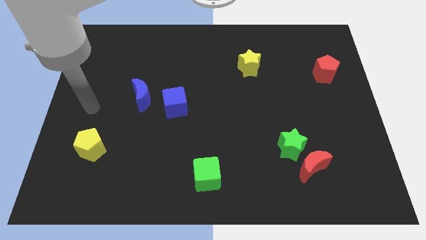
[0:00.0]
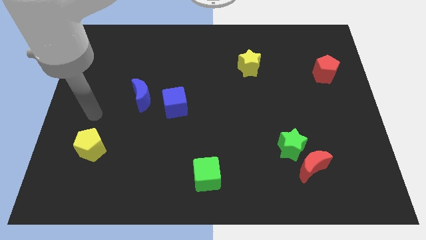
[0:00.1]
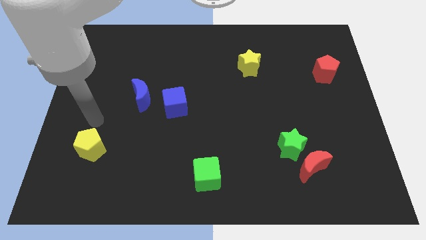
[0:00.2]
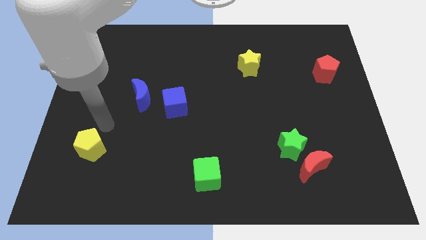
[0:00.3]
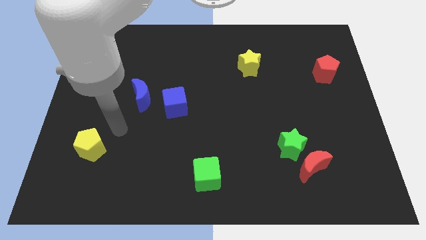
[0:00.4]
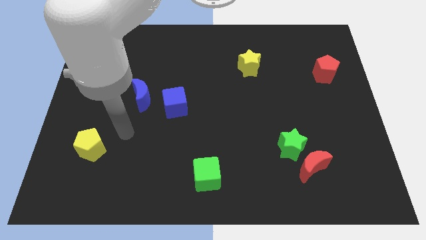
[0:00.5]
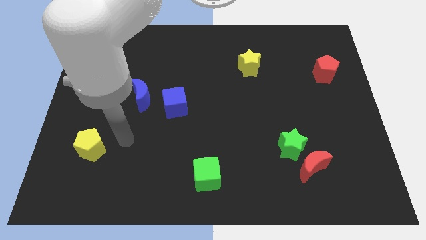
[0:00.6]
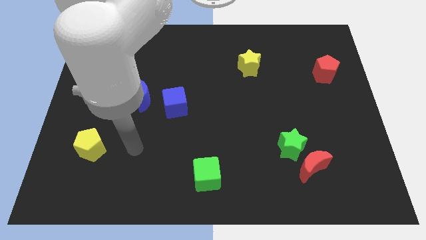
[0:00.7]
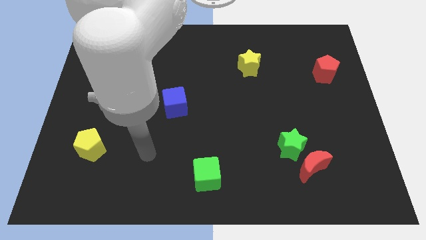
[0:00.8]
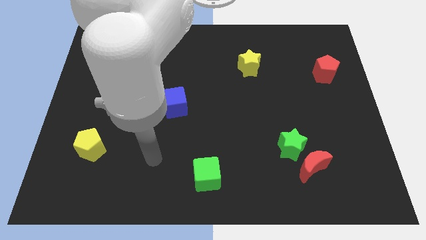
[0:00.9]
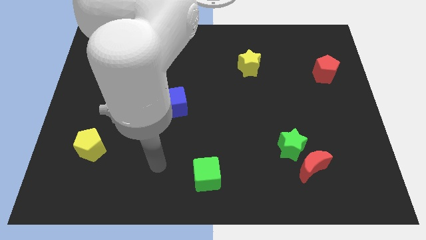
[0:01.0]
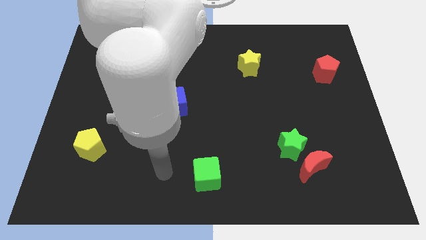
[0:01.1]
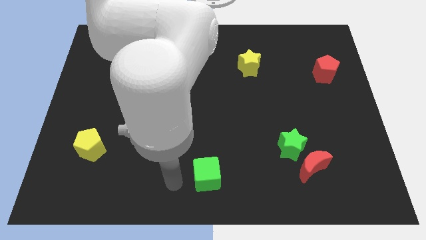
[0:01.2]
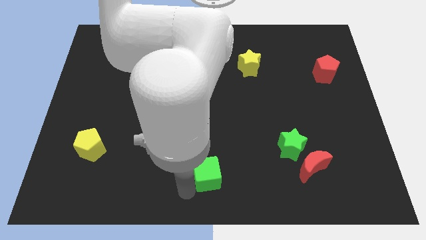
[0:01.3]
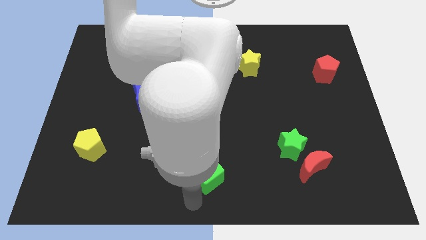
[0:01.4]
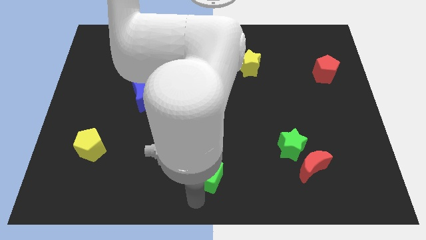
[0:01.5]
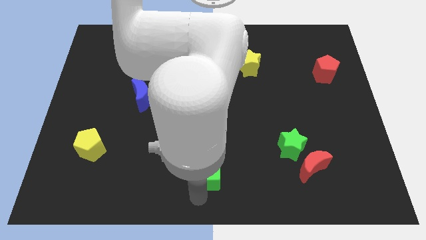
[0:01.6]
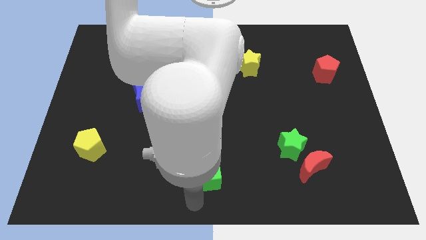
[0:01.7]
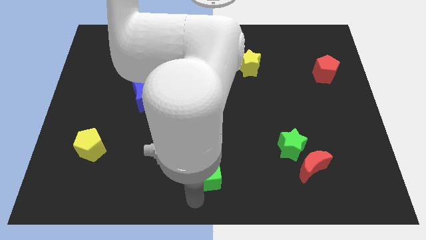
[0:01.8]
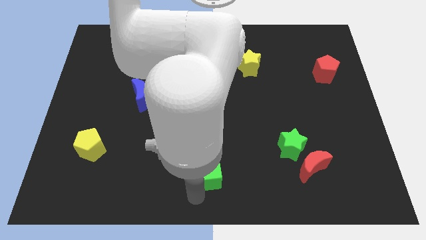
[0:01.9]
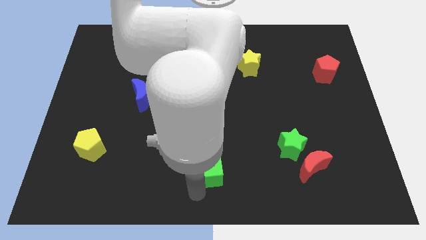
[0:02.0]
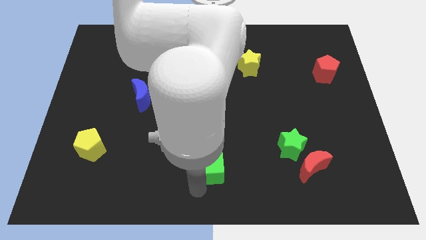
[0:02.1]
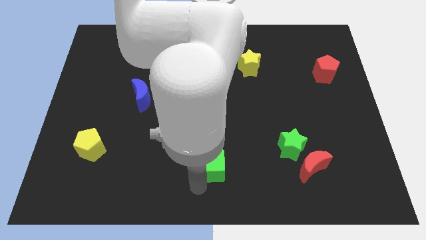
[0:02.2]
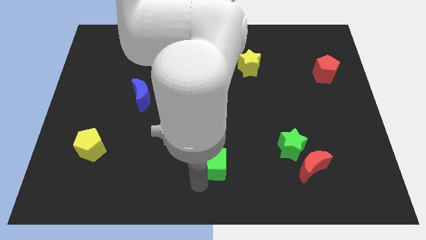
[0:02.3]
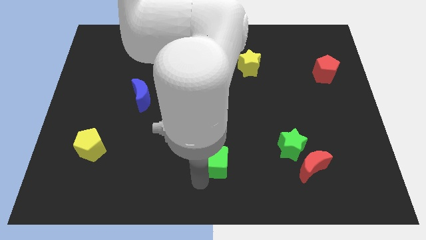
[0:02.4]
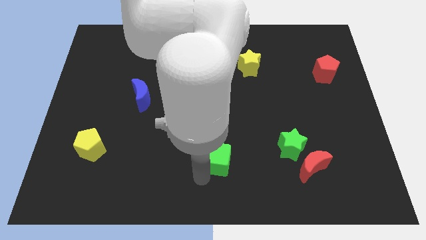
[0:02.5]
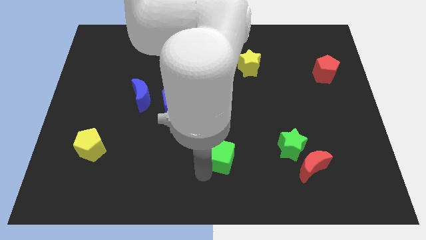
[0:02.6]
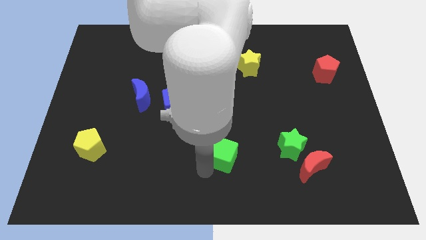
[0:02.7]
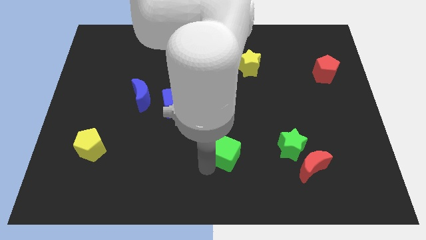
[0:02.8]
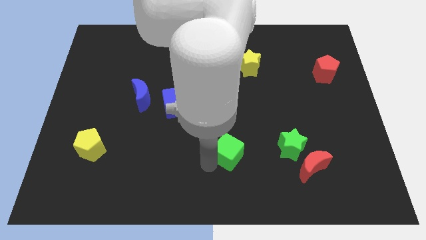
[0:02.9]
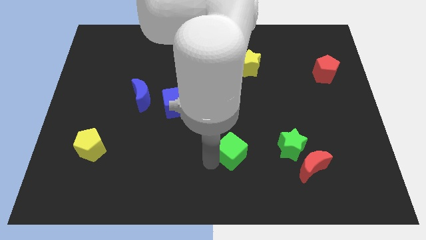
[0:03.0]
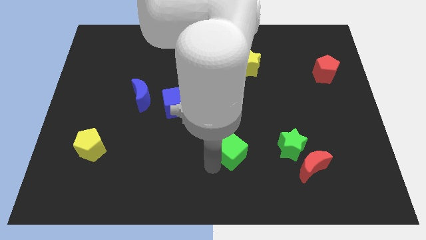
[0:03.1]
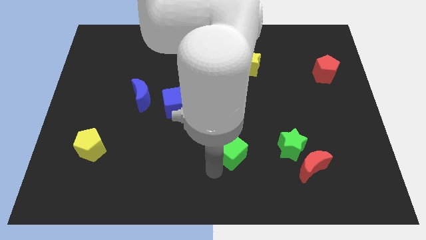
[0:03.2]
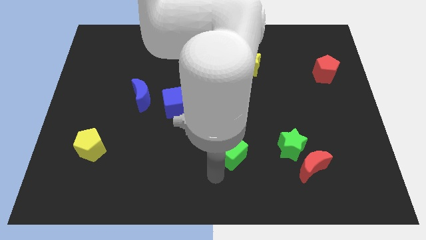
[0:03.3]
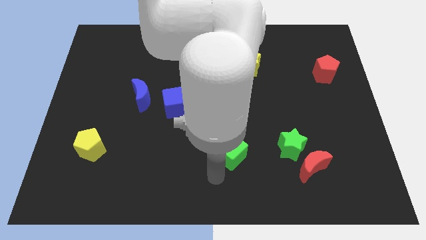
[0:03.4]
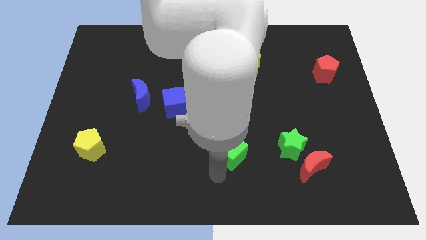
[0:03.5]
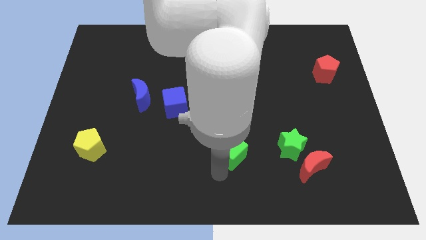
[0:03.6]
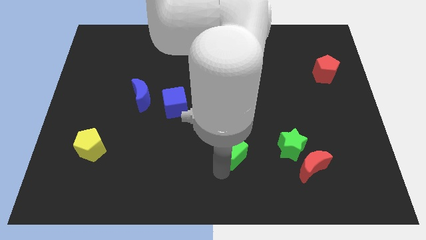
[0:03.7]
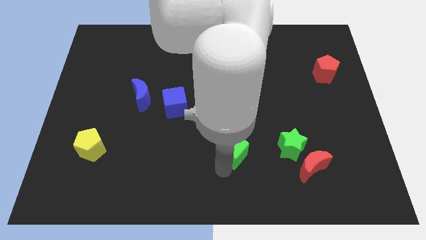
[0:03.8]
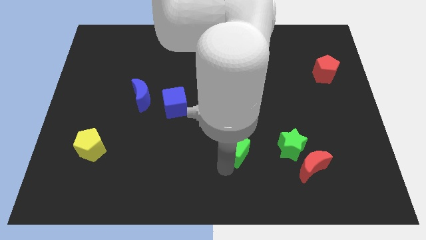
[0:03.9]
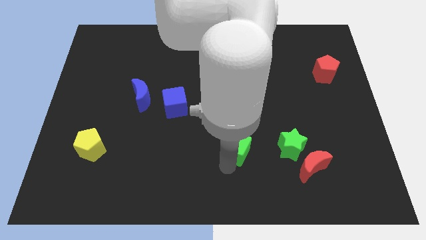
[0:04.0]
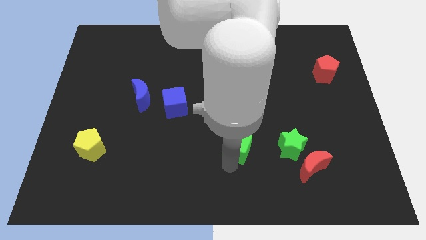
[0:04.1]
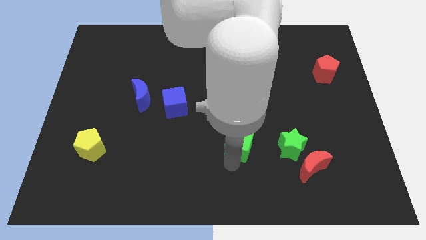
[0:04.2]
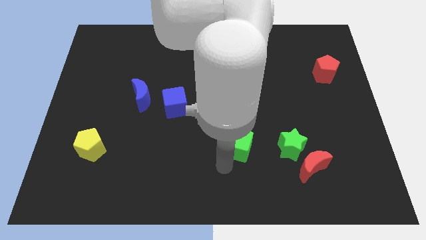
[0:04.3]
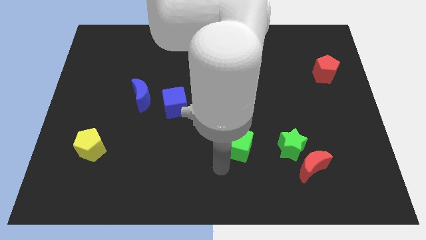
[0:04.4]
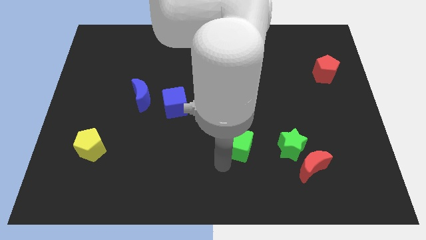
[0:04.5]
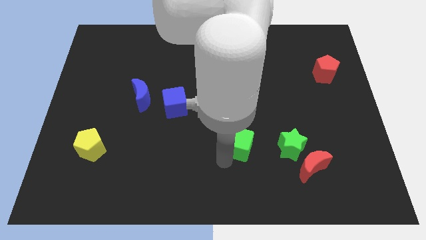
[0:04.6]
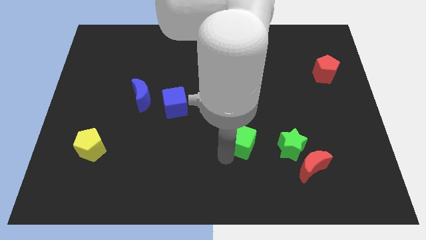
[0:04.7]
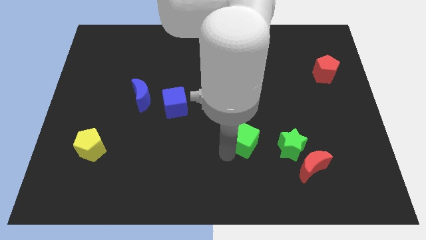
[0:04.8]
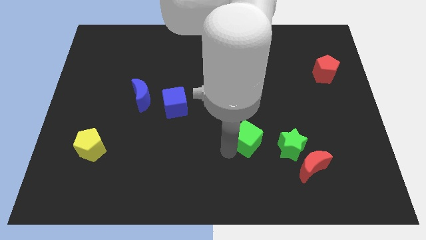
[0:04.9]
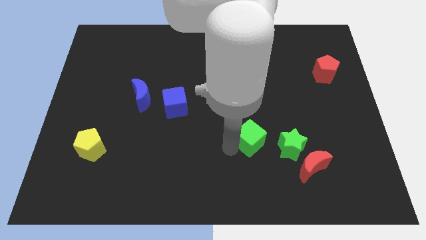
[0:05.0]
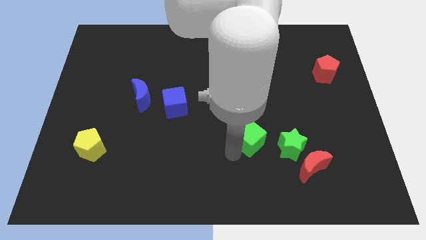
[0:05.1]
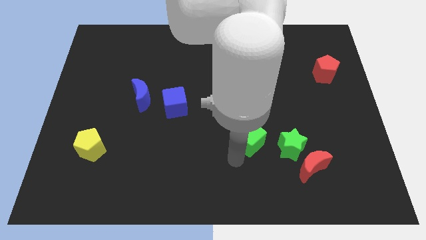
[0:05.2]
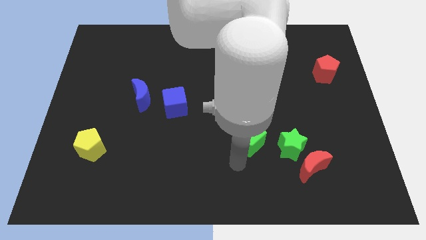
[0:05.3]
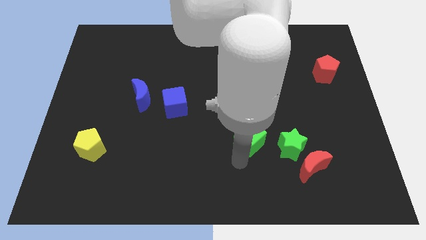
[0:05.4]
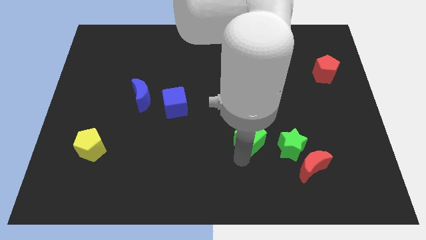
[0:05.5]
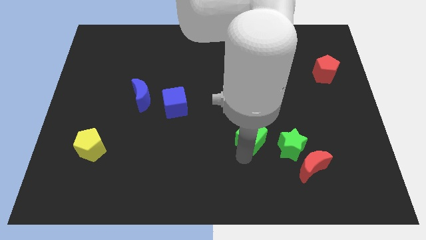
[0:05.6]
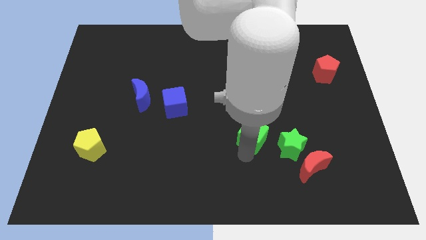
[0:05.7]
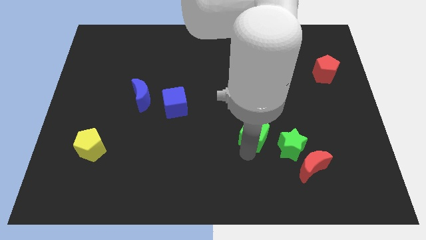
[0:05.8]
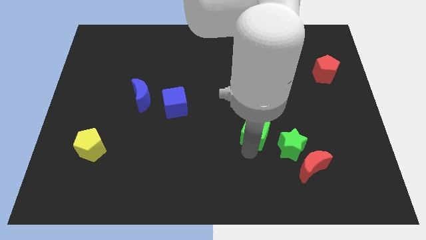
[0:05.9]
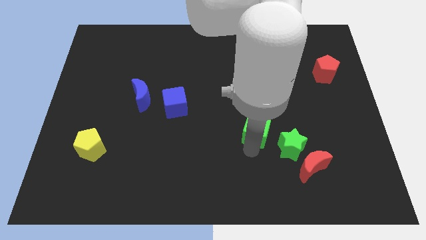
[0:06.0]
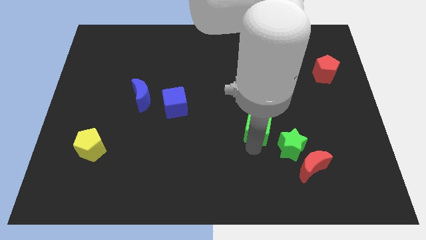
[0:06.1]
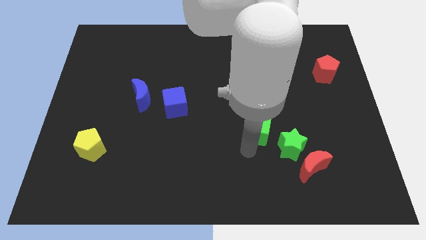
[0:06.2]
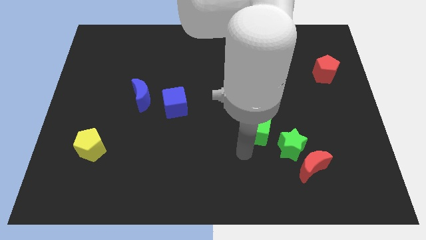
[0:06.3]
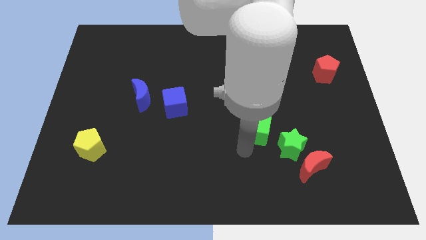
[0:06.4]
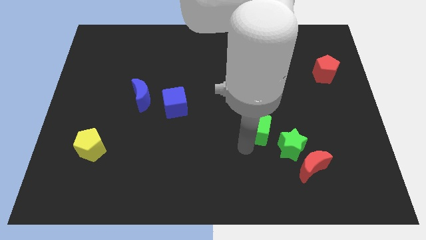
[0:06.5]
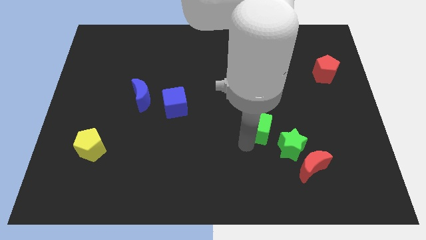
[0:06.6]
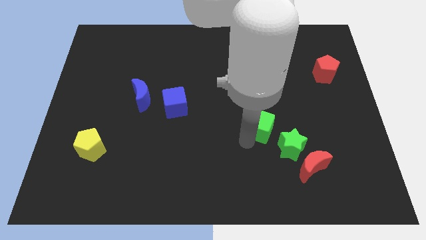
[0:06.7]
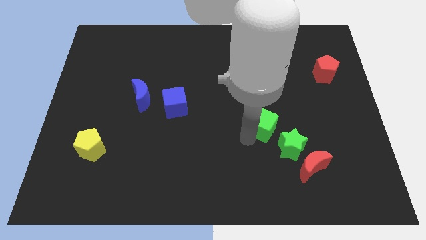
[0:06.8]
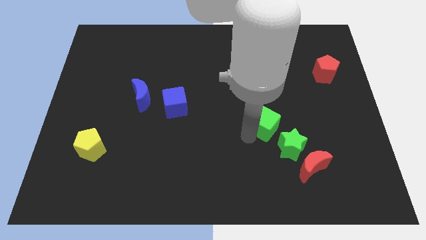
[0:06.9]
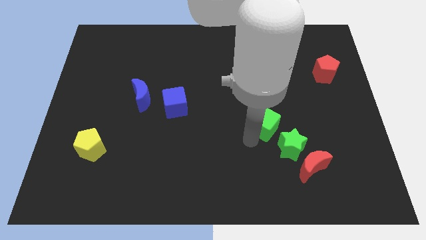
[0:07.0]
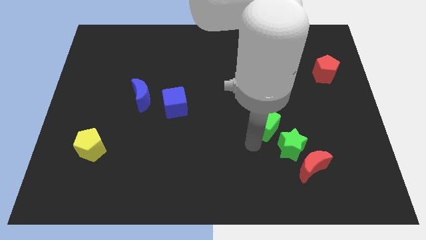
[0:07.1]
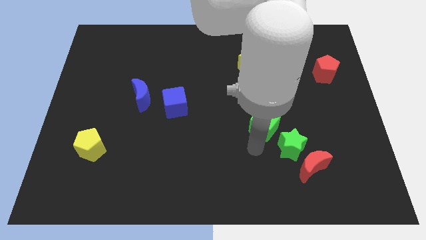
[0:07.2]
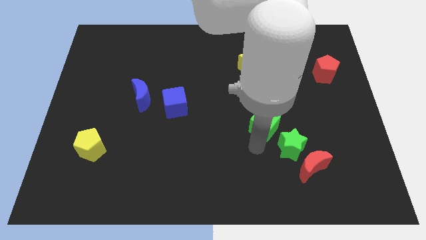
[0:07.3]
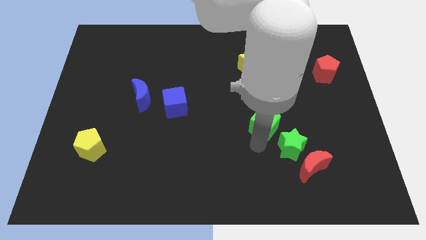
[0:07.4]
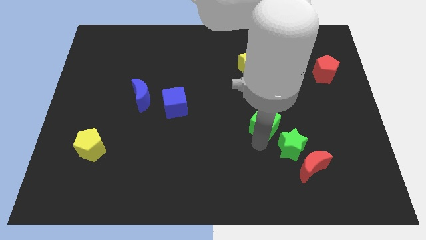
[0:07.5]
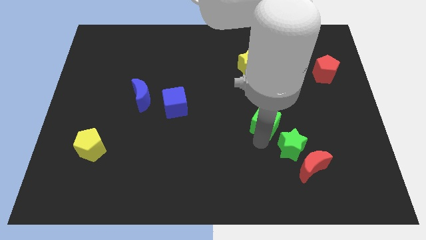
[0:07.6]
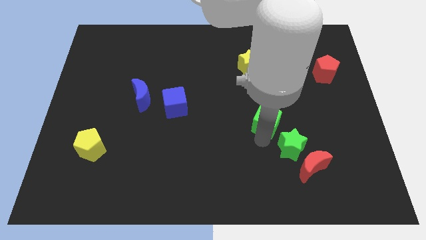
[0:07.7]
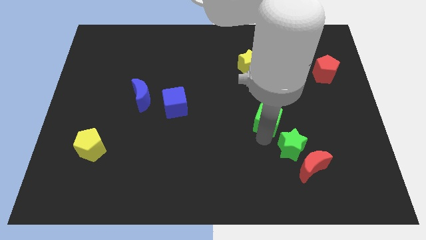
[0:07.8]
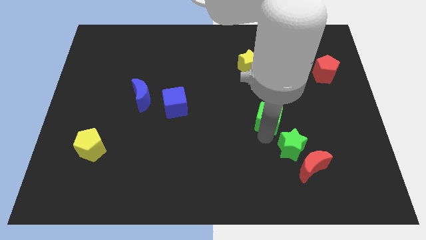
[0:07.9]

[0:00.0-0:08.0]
move the green cube up and then right
